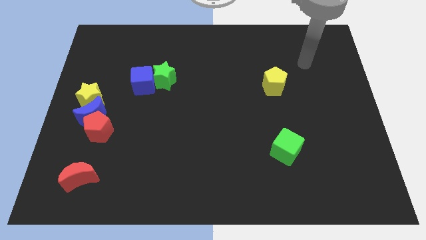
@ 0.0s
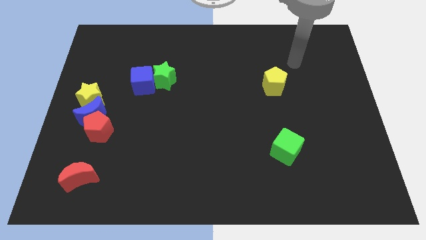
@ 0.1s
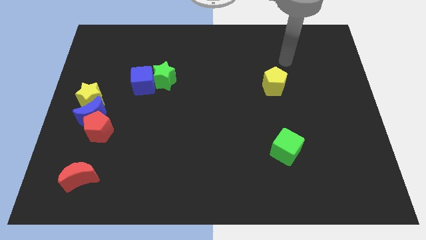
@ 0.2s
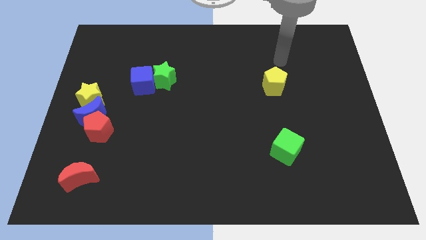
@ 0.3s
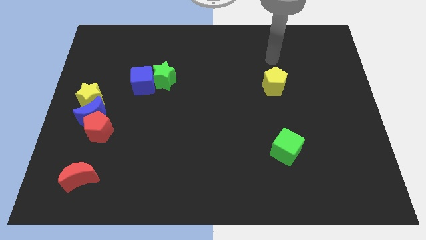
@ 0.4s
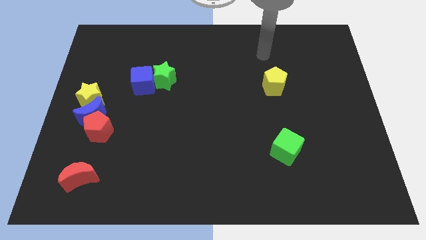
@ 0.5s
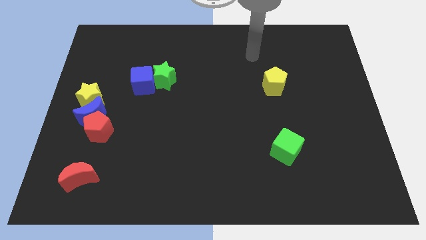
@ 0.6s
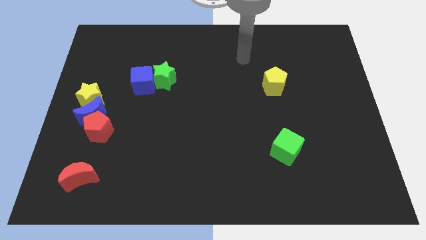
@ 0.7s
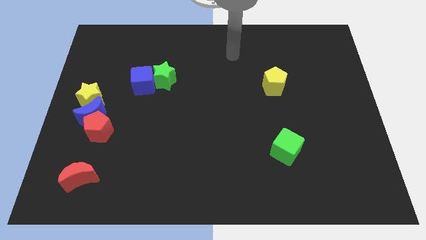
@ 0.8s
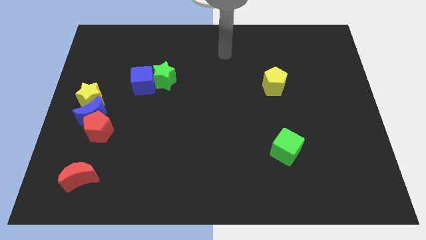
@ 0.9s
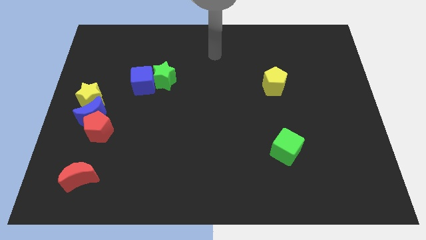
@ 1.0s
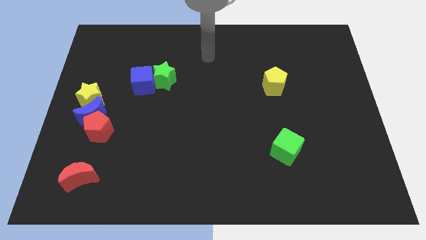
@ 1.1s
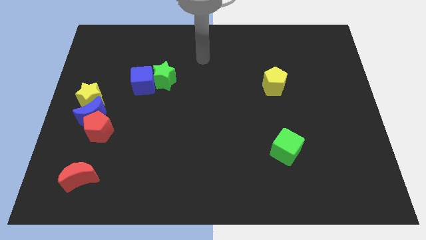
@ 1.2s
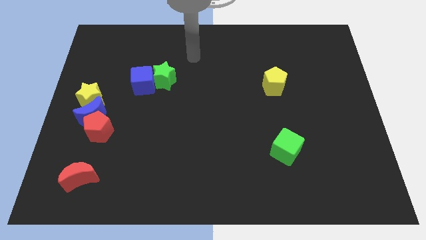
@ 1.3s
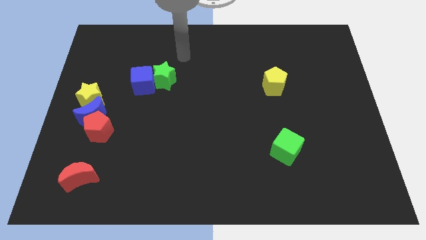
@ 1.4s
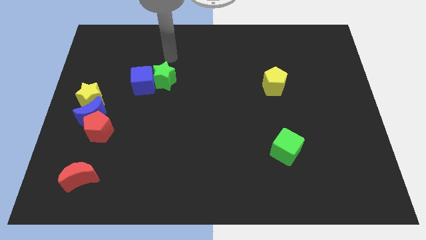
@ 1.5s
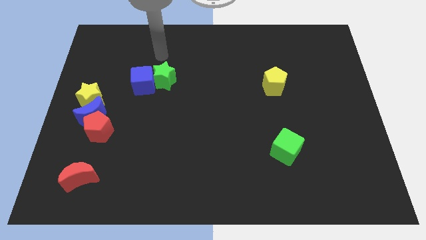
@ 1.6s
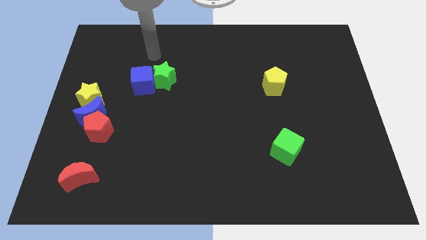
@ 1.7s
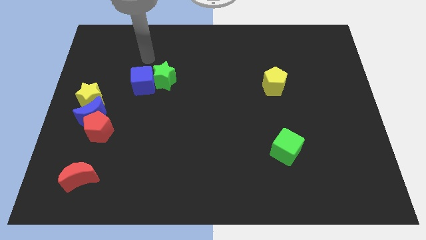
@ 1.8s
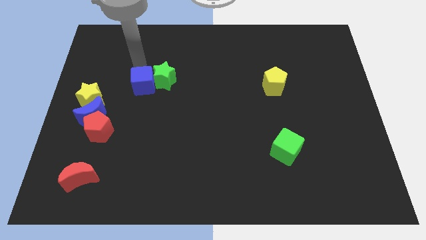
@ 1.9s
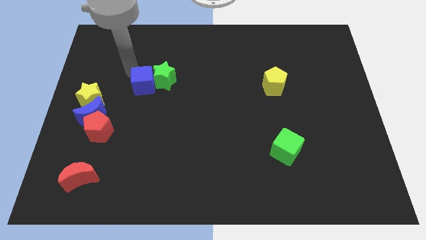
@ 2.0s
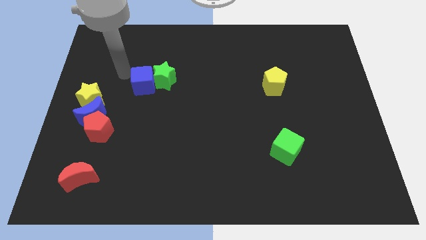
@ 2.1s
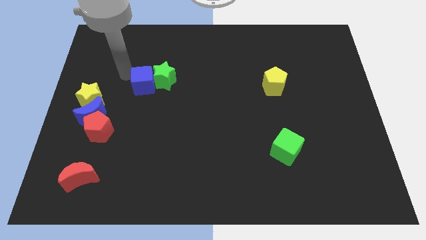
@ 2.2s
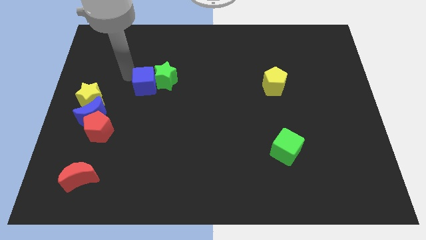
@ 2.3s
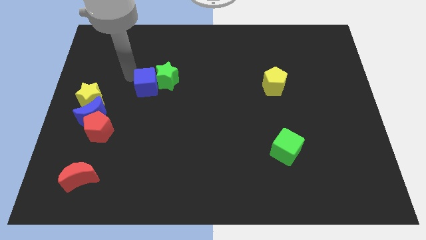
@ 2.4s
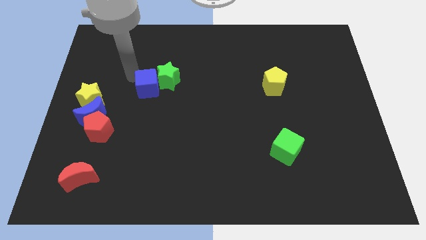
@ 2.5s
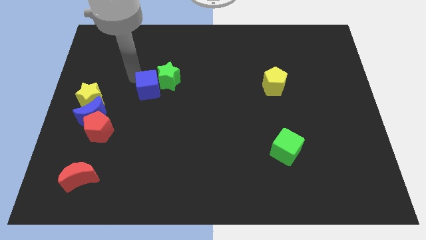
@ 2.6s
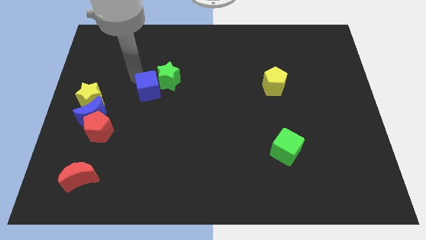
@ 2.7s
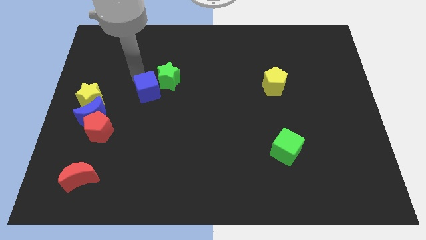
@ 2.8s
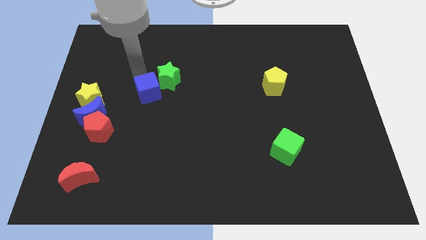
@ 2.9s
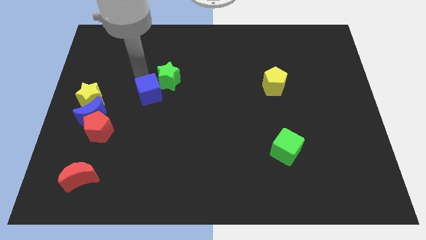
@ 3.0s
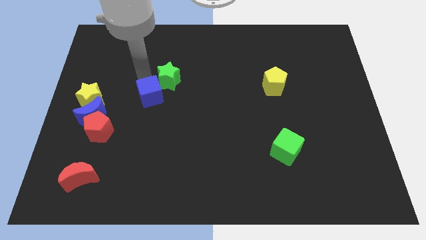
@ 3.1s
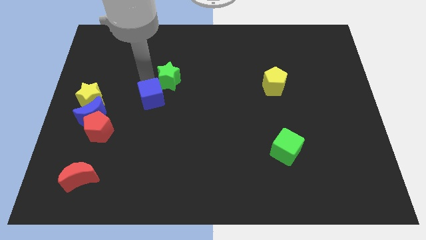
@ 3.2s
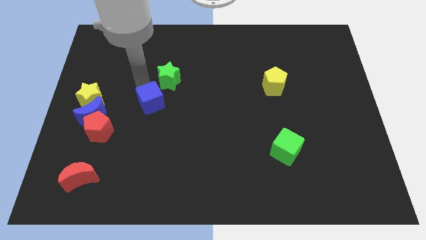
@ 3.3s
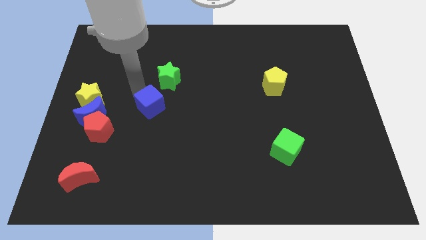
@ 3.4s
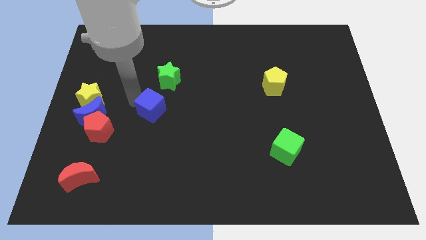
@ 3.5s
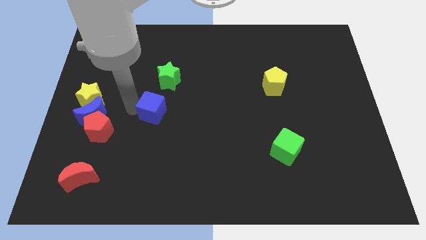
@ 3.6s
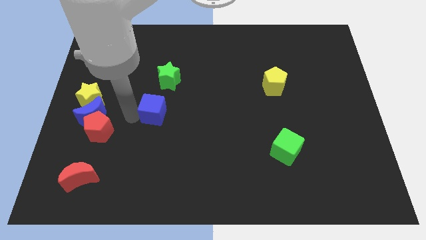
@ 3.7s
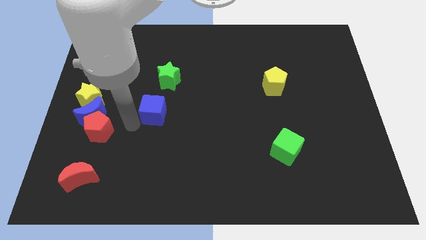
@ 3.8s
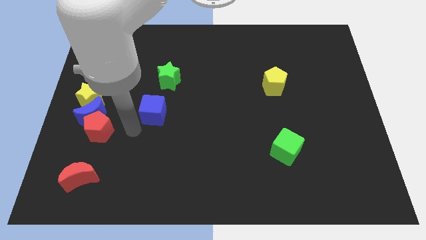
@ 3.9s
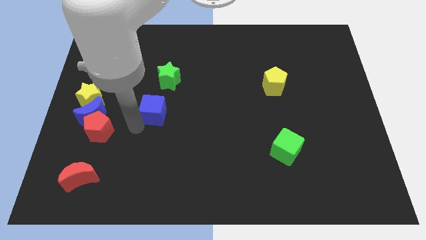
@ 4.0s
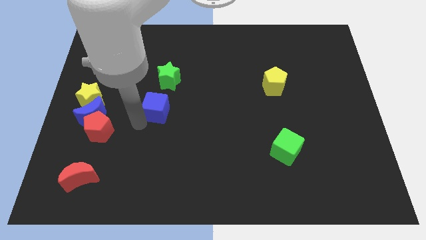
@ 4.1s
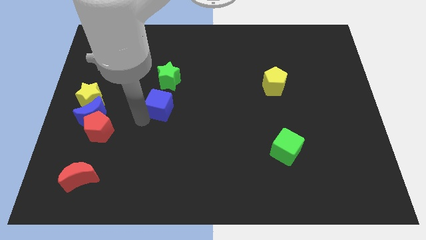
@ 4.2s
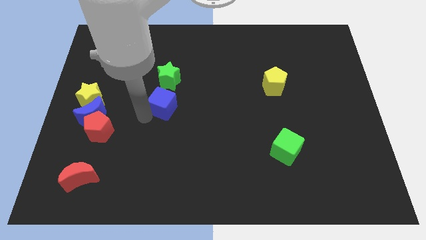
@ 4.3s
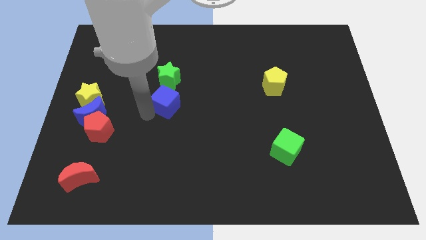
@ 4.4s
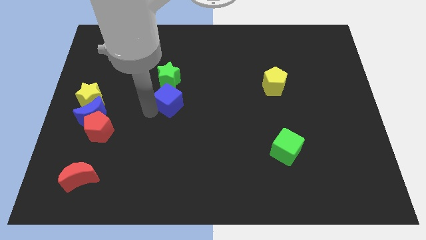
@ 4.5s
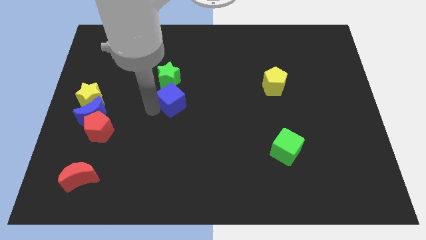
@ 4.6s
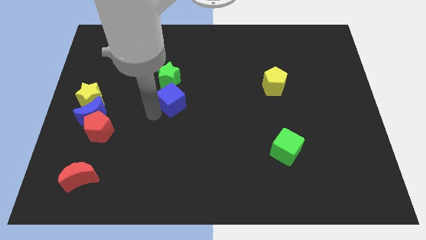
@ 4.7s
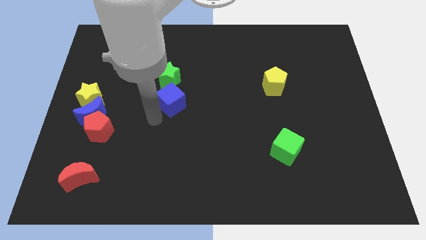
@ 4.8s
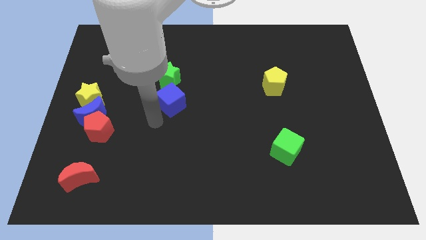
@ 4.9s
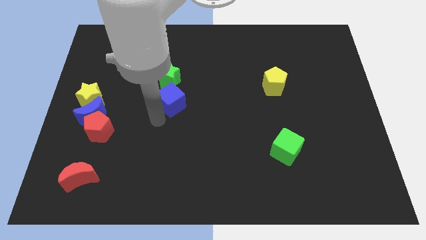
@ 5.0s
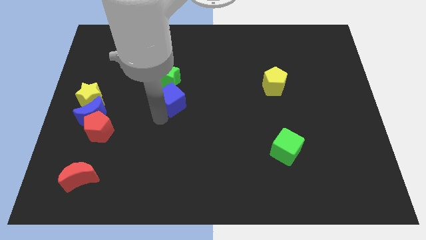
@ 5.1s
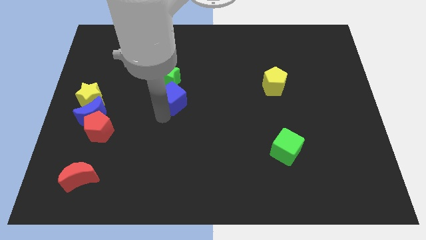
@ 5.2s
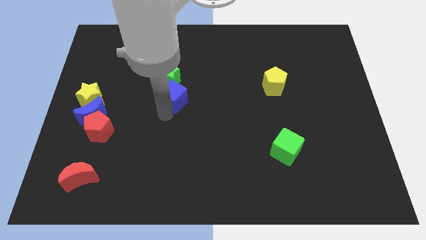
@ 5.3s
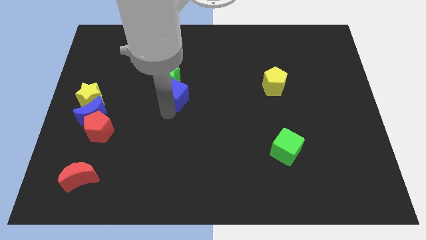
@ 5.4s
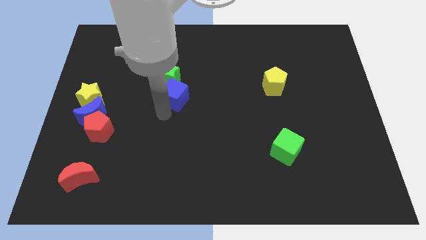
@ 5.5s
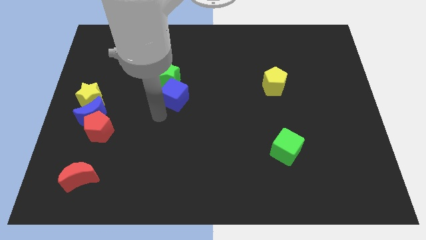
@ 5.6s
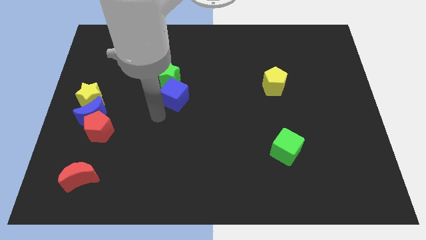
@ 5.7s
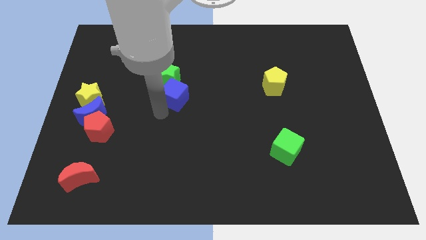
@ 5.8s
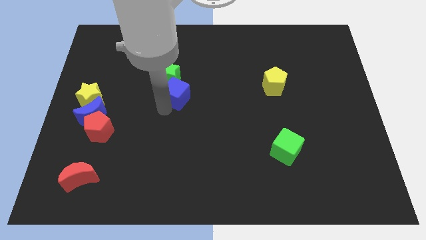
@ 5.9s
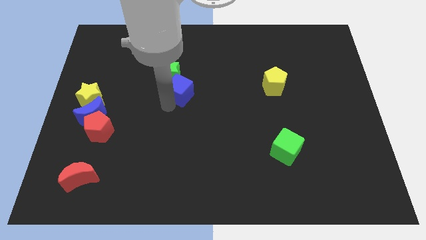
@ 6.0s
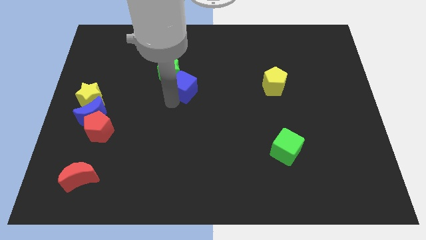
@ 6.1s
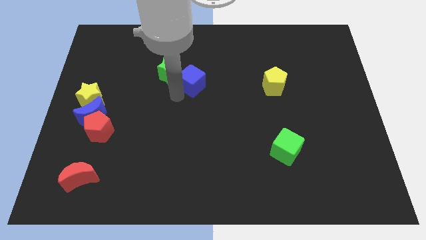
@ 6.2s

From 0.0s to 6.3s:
put the blue cube to the right side of the green star

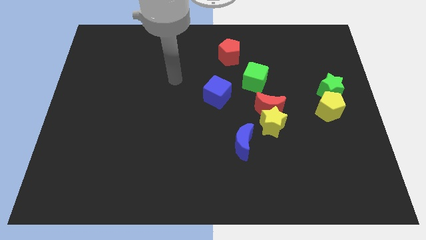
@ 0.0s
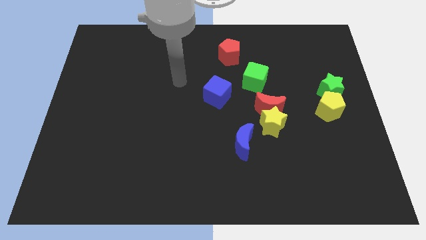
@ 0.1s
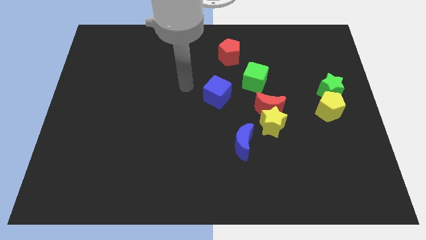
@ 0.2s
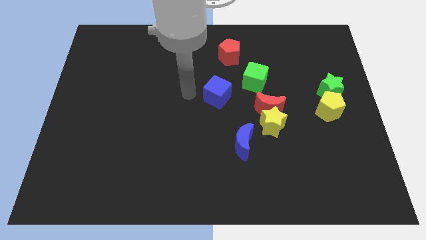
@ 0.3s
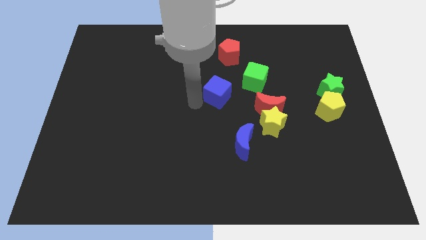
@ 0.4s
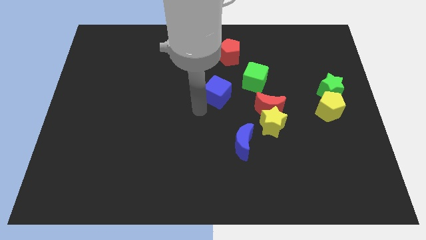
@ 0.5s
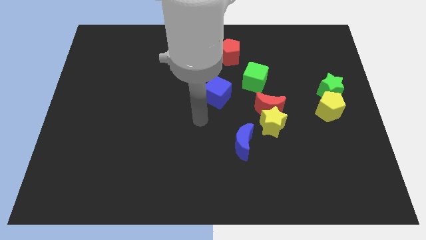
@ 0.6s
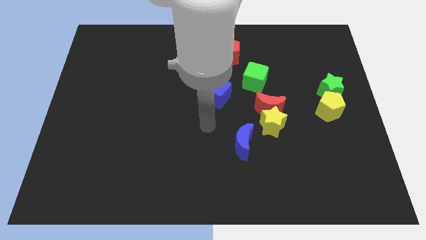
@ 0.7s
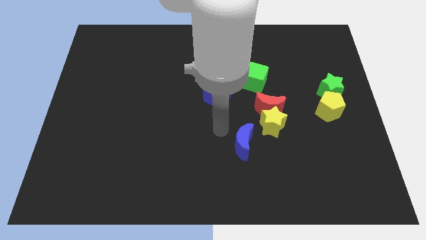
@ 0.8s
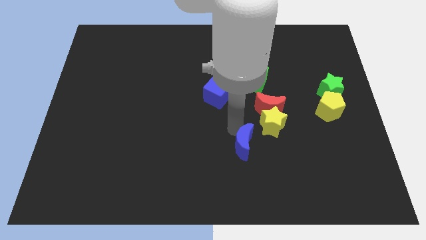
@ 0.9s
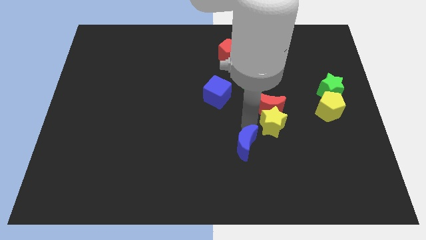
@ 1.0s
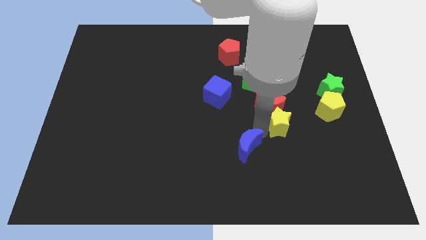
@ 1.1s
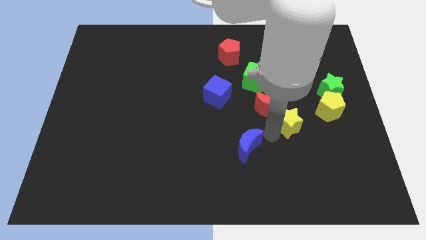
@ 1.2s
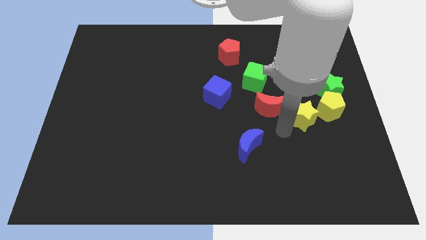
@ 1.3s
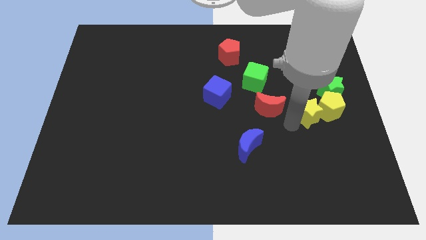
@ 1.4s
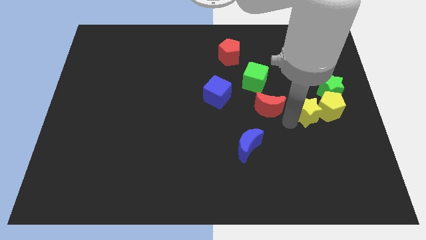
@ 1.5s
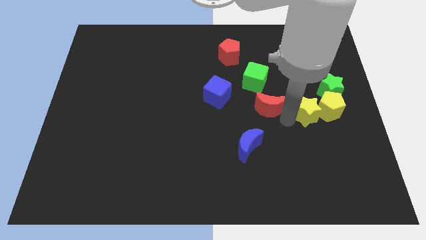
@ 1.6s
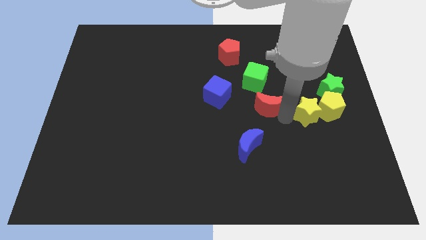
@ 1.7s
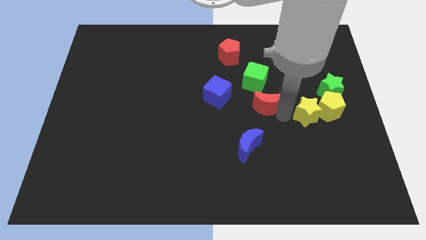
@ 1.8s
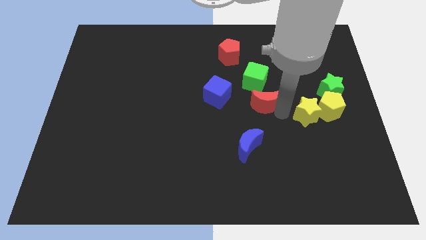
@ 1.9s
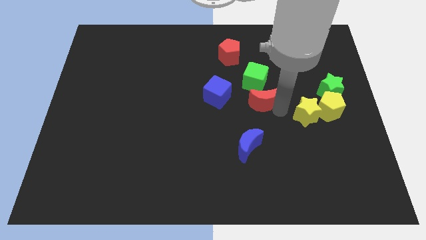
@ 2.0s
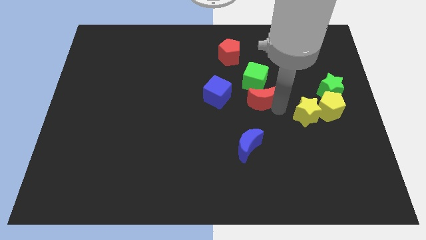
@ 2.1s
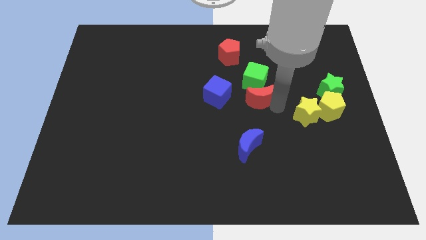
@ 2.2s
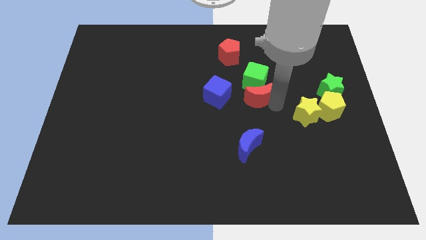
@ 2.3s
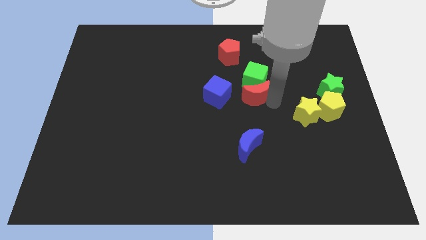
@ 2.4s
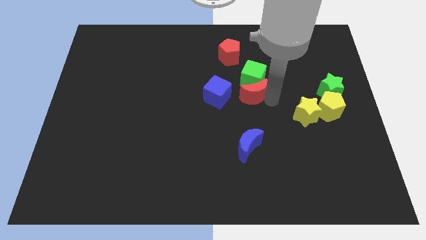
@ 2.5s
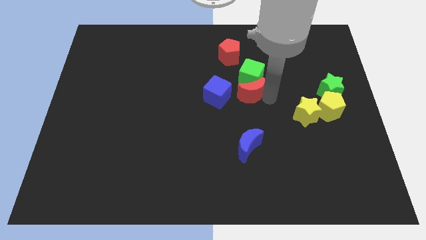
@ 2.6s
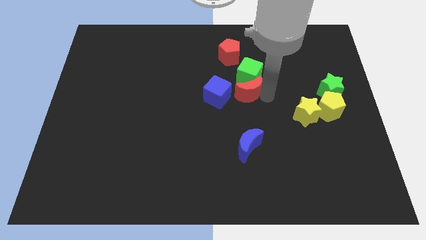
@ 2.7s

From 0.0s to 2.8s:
push the red moon to the bottom of the red pentagon
